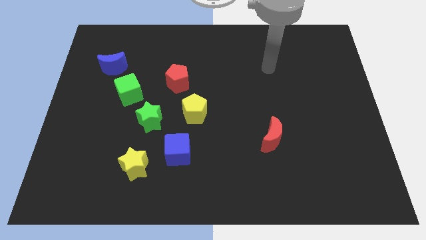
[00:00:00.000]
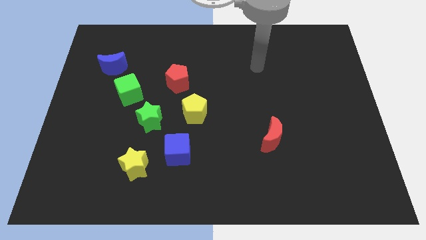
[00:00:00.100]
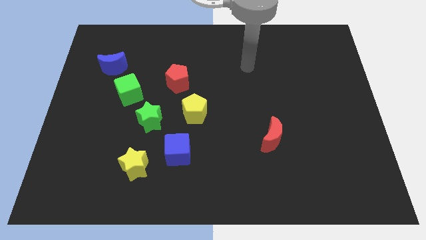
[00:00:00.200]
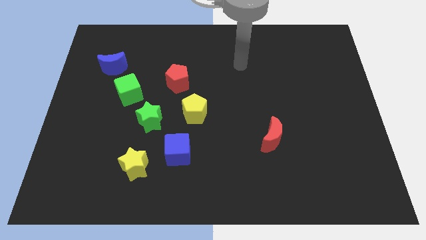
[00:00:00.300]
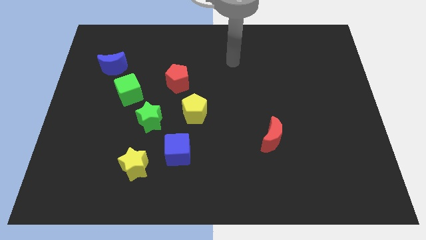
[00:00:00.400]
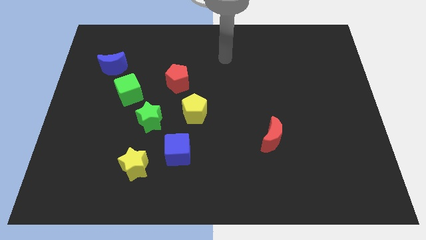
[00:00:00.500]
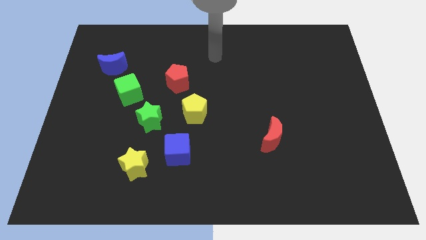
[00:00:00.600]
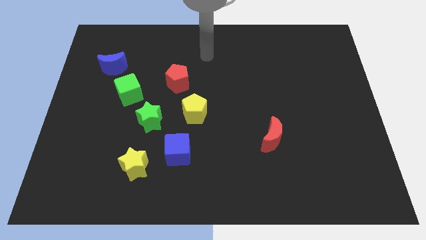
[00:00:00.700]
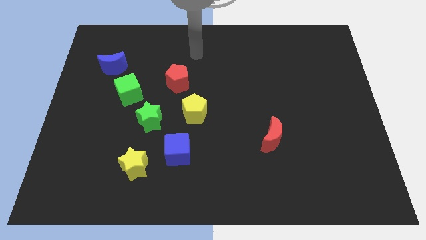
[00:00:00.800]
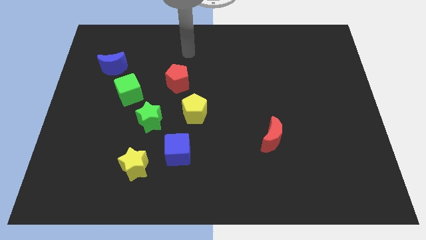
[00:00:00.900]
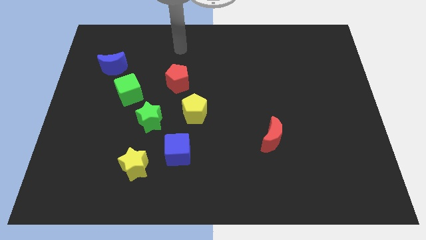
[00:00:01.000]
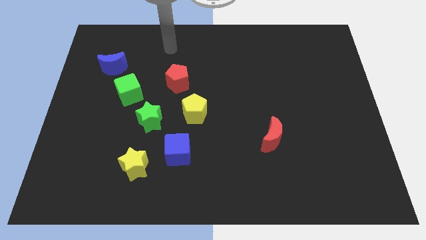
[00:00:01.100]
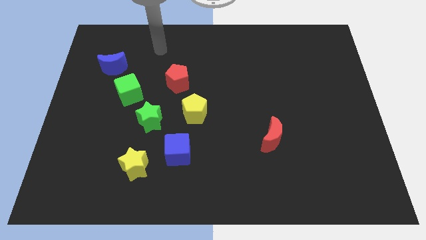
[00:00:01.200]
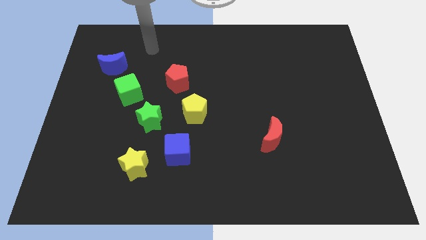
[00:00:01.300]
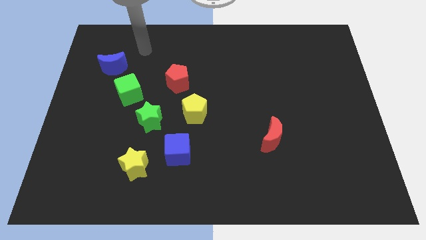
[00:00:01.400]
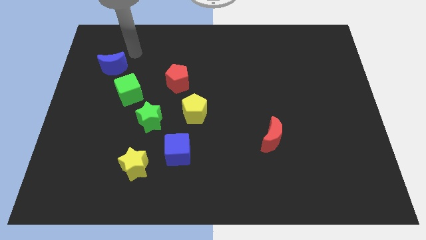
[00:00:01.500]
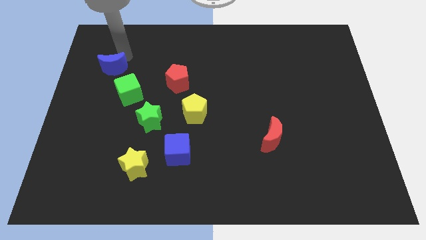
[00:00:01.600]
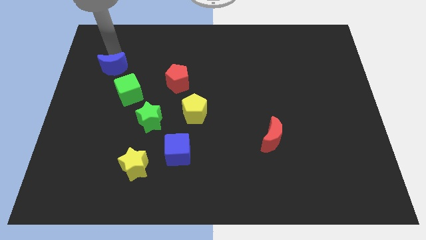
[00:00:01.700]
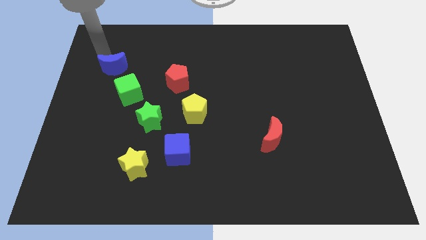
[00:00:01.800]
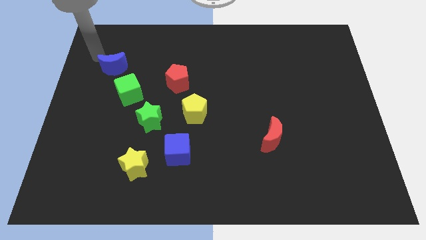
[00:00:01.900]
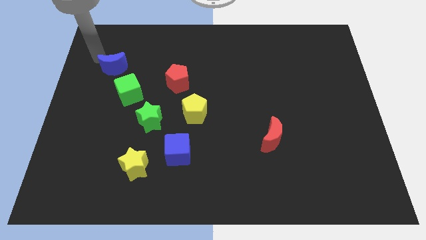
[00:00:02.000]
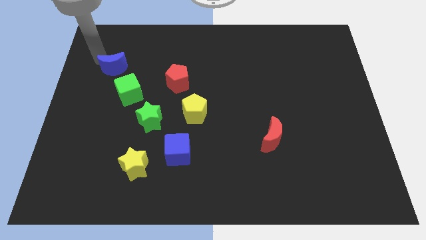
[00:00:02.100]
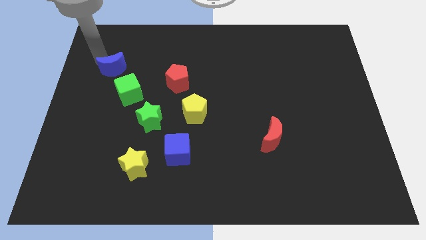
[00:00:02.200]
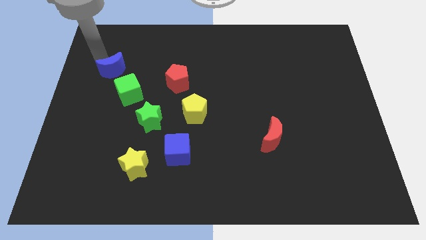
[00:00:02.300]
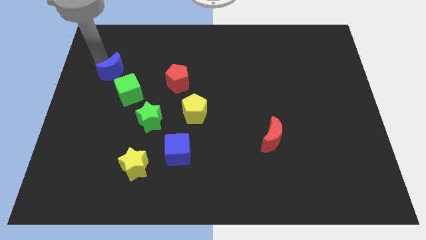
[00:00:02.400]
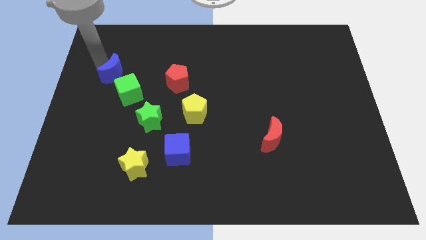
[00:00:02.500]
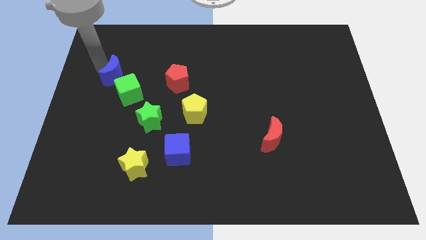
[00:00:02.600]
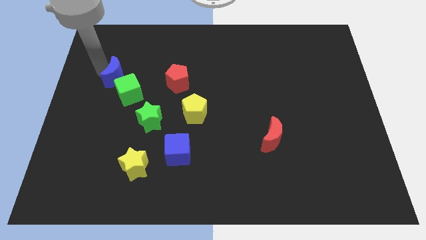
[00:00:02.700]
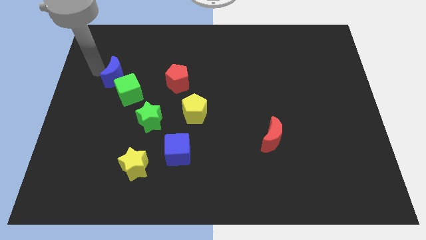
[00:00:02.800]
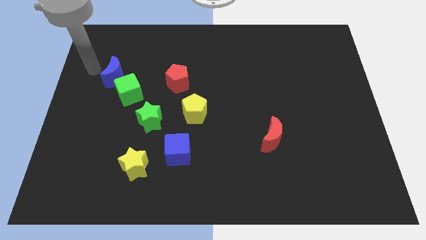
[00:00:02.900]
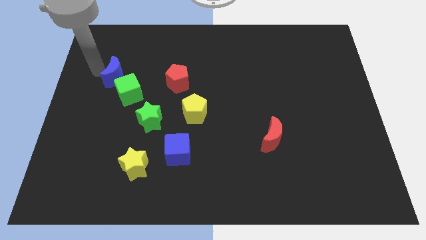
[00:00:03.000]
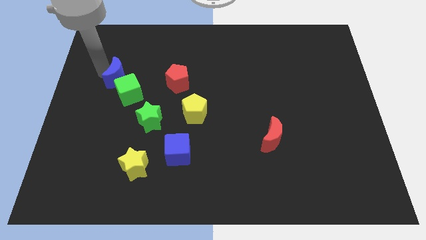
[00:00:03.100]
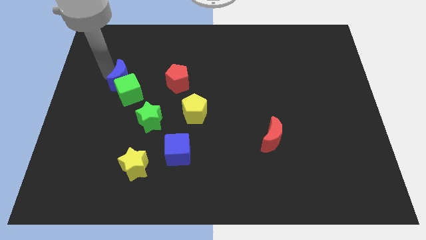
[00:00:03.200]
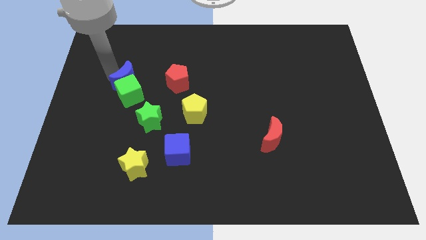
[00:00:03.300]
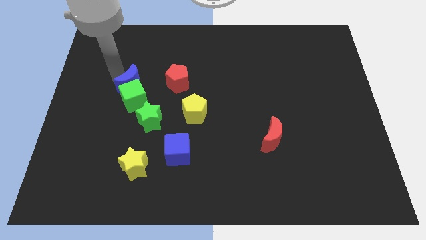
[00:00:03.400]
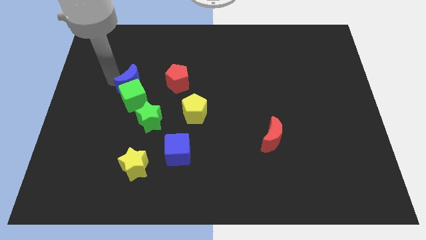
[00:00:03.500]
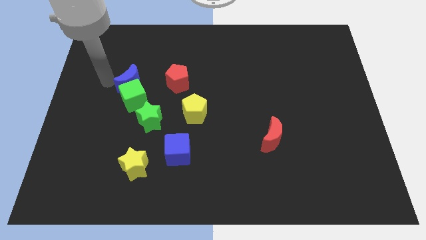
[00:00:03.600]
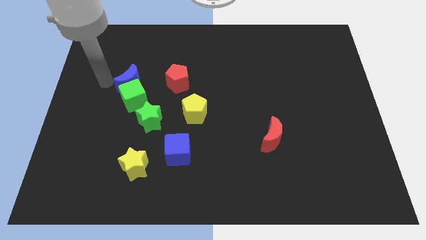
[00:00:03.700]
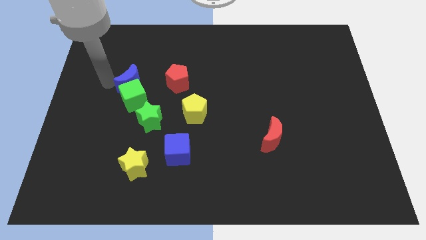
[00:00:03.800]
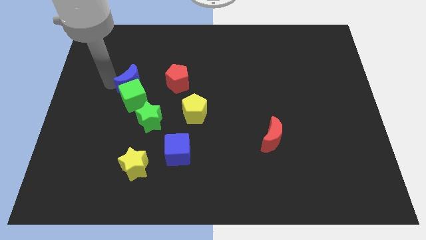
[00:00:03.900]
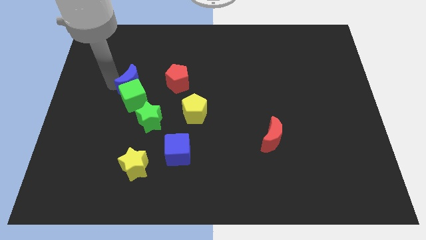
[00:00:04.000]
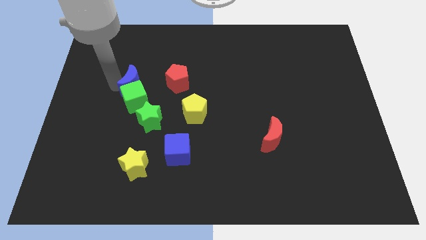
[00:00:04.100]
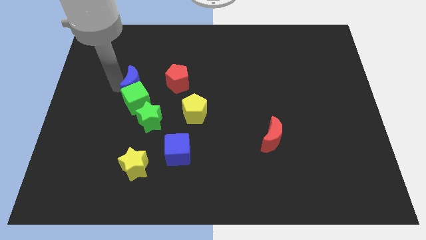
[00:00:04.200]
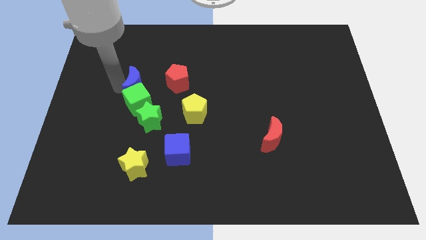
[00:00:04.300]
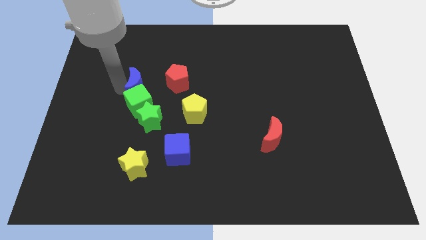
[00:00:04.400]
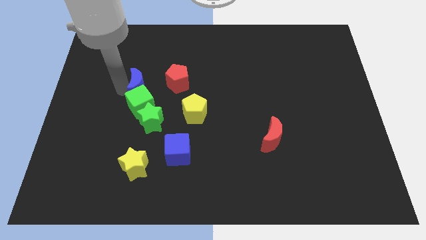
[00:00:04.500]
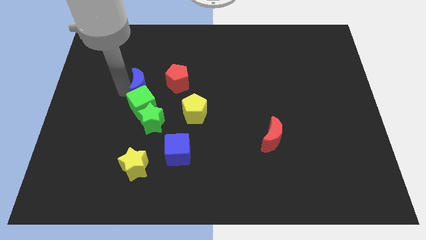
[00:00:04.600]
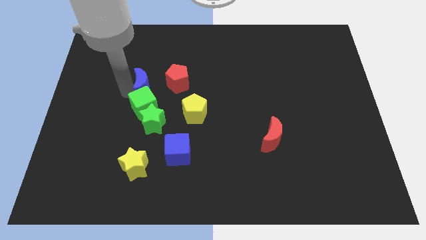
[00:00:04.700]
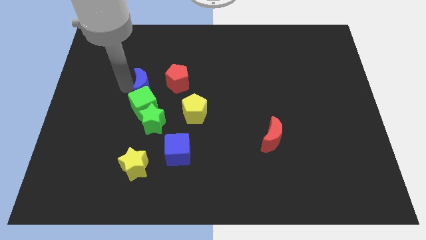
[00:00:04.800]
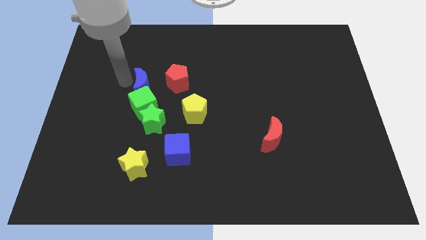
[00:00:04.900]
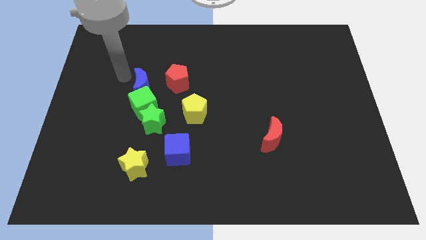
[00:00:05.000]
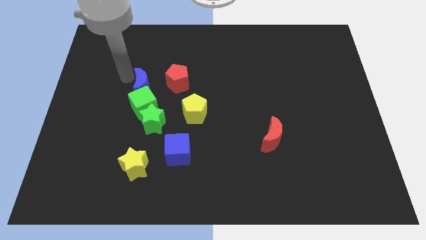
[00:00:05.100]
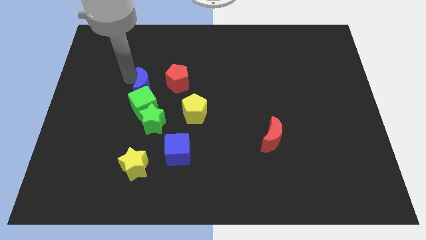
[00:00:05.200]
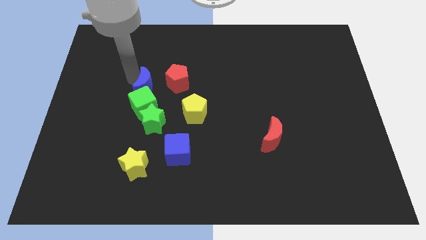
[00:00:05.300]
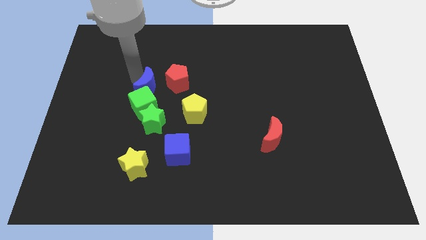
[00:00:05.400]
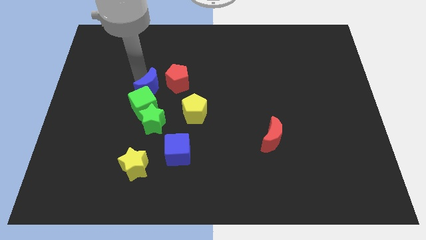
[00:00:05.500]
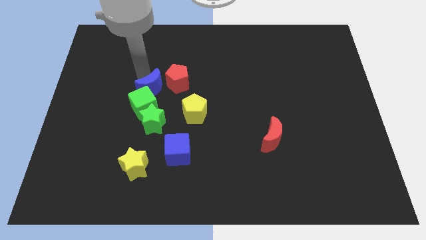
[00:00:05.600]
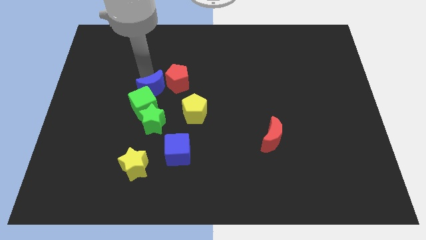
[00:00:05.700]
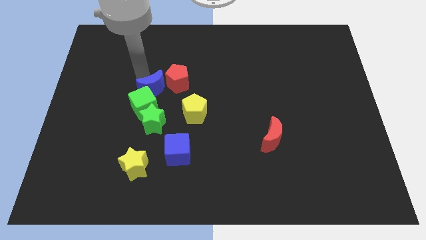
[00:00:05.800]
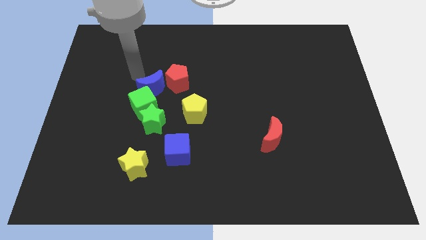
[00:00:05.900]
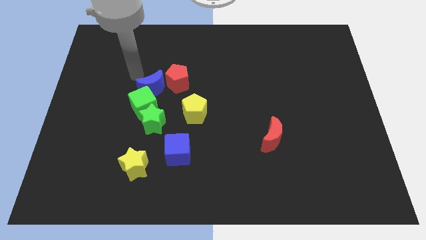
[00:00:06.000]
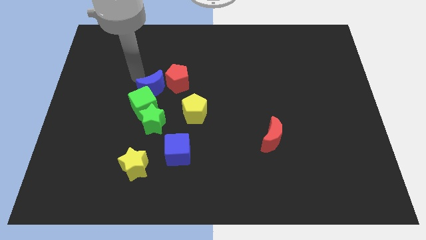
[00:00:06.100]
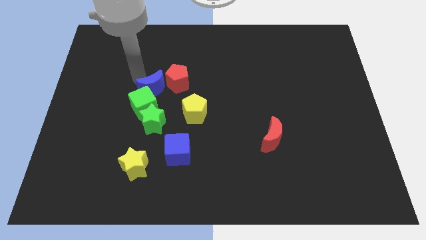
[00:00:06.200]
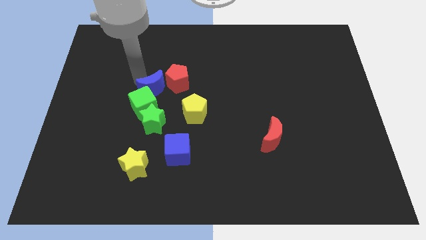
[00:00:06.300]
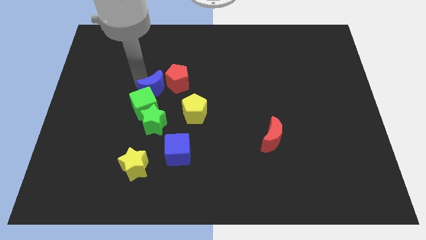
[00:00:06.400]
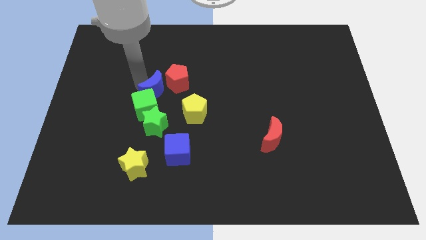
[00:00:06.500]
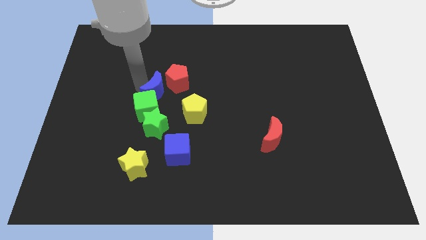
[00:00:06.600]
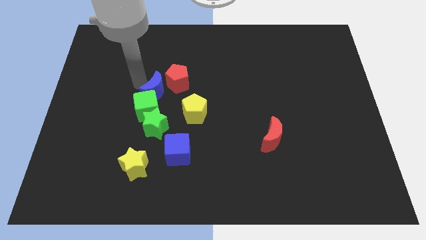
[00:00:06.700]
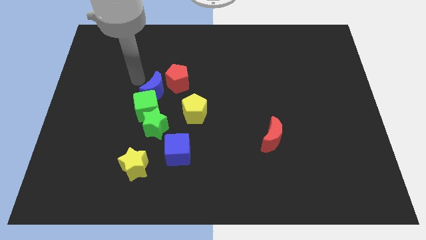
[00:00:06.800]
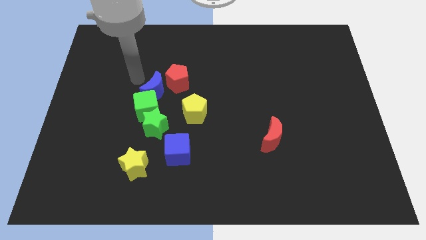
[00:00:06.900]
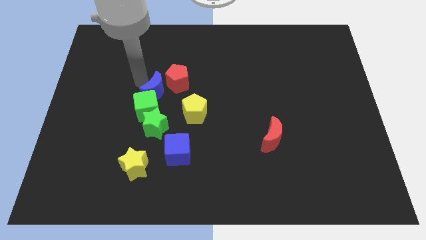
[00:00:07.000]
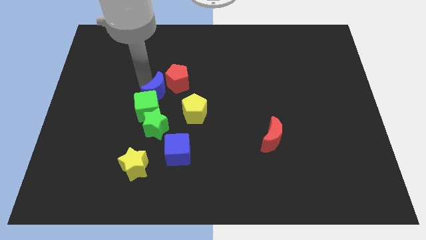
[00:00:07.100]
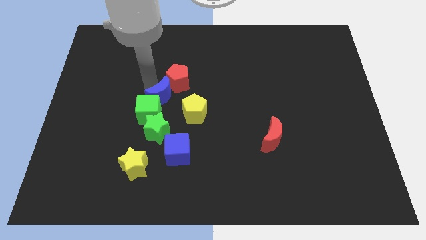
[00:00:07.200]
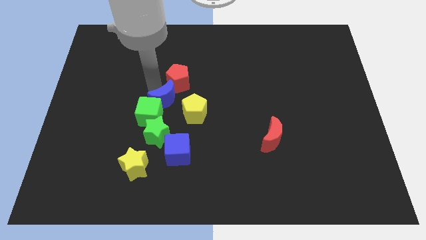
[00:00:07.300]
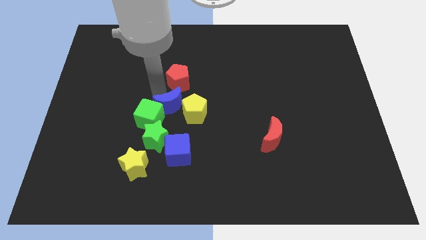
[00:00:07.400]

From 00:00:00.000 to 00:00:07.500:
move the blue moon next to the yellow pentagon

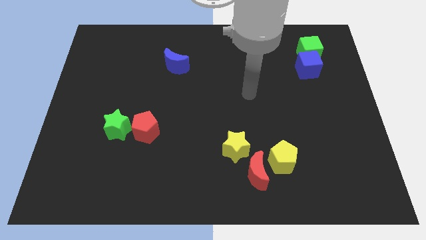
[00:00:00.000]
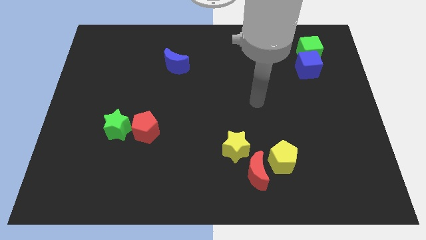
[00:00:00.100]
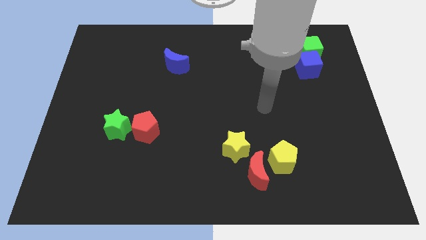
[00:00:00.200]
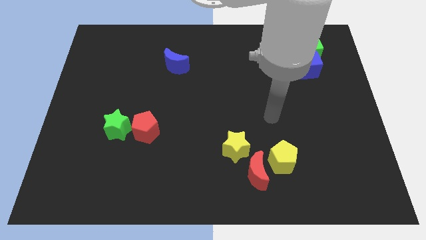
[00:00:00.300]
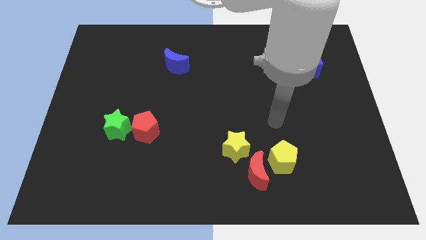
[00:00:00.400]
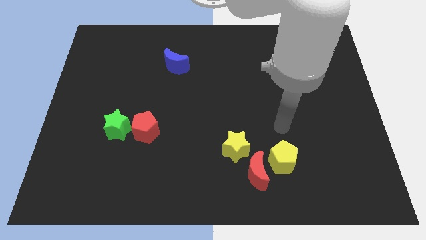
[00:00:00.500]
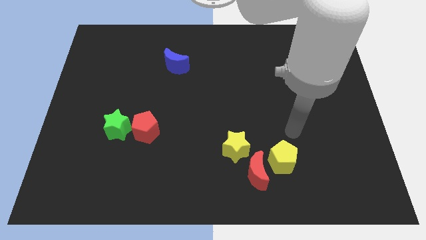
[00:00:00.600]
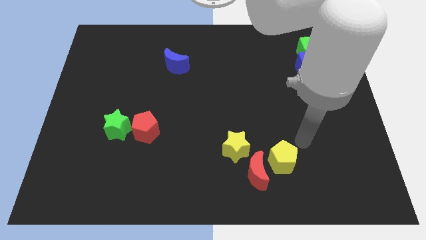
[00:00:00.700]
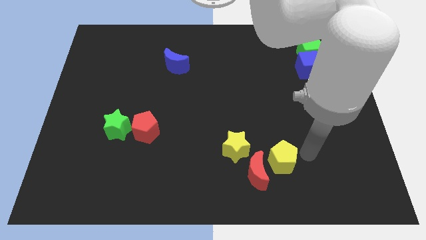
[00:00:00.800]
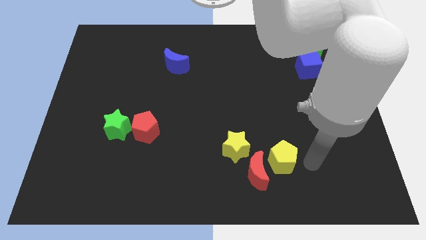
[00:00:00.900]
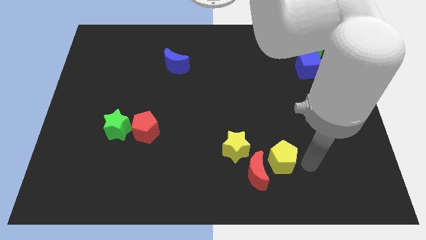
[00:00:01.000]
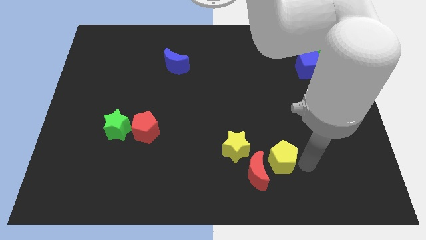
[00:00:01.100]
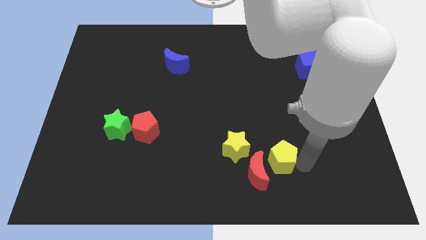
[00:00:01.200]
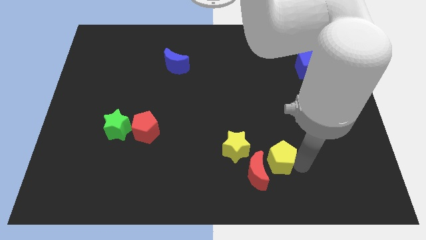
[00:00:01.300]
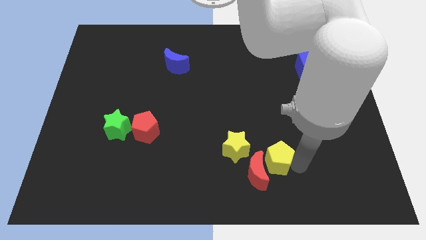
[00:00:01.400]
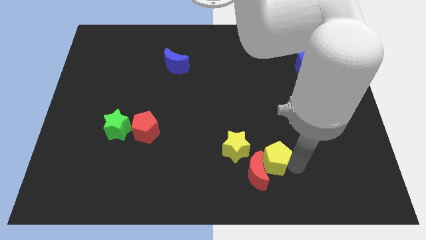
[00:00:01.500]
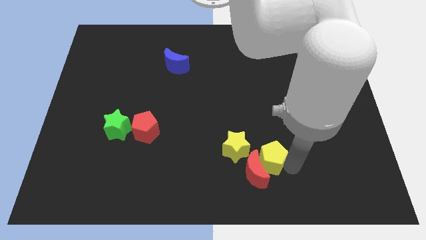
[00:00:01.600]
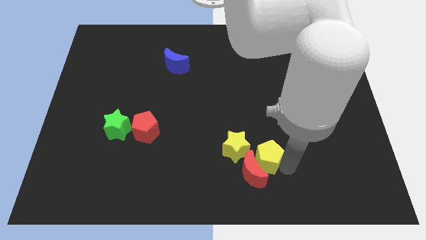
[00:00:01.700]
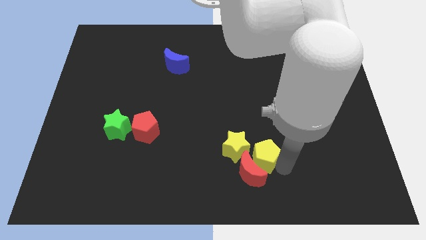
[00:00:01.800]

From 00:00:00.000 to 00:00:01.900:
put the yellow pentagon next to the yellow star
